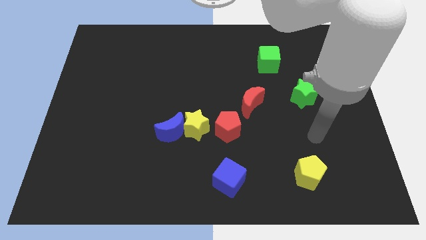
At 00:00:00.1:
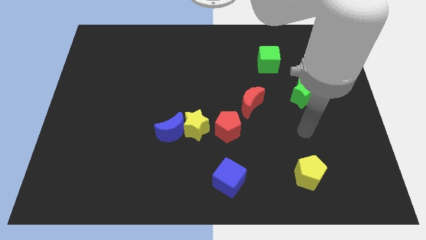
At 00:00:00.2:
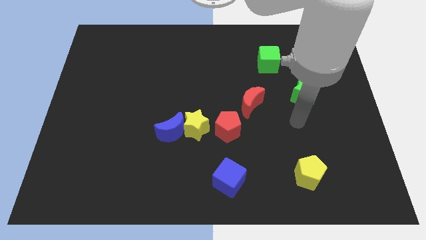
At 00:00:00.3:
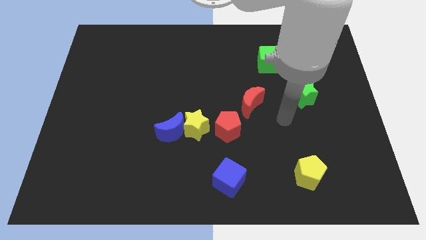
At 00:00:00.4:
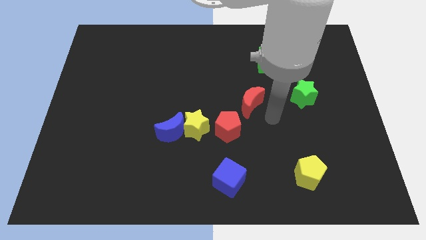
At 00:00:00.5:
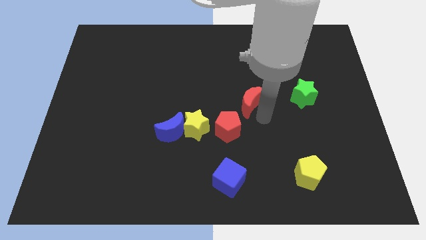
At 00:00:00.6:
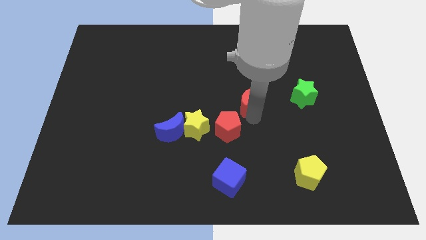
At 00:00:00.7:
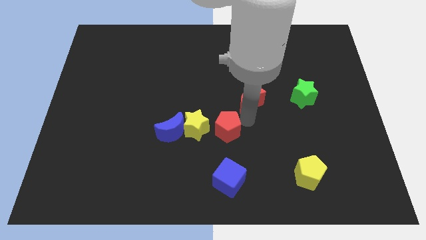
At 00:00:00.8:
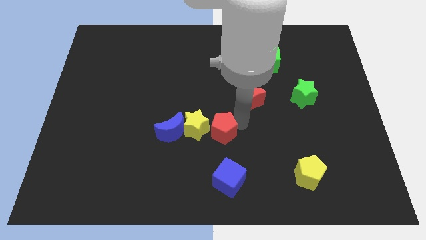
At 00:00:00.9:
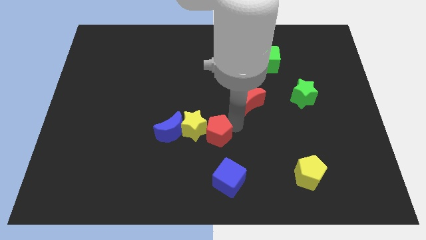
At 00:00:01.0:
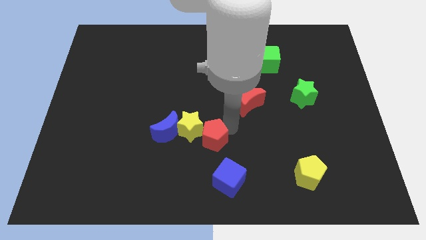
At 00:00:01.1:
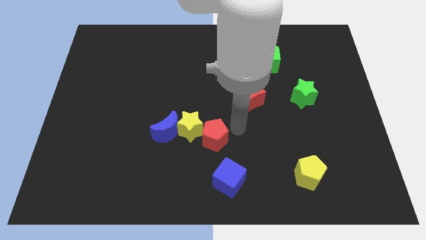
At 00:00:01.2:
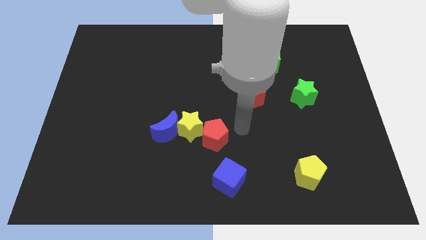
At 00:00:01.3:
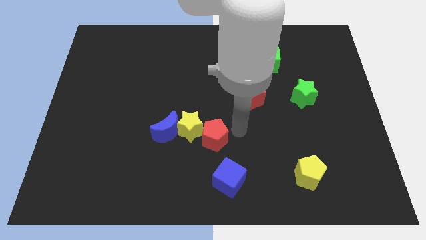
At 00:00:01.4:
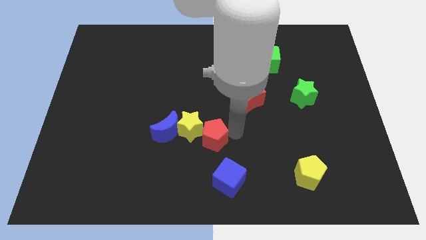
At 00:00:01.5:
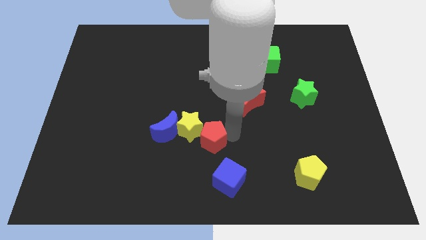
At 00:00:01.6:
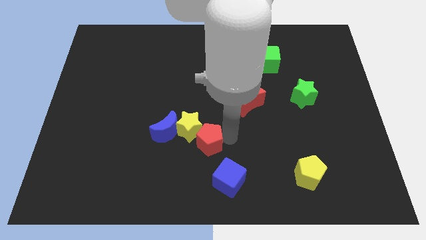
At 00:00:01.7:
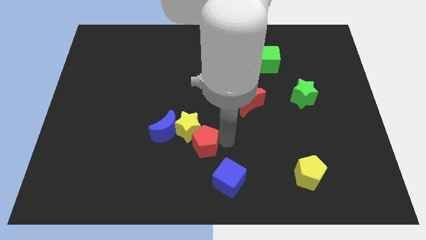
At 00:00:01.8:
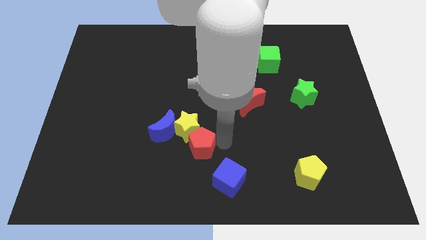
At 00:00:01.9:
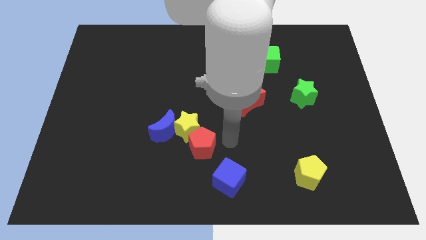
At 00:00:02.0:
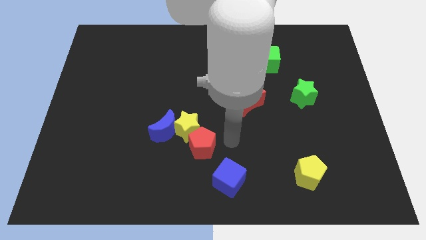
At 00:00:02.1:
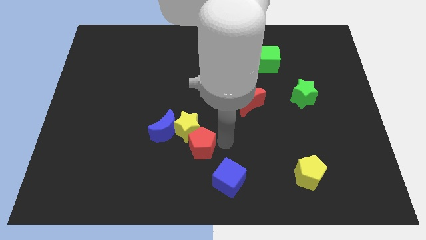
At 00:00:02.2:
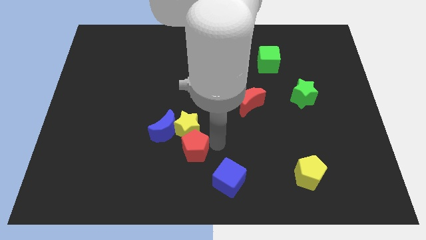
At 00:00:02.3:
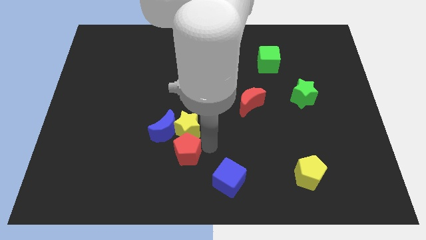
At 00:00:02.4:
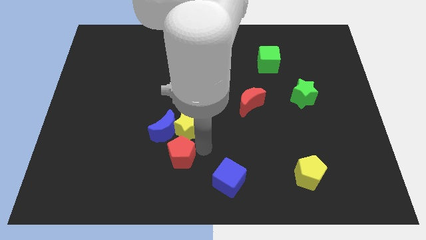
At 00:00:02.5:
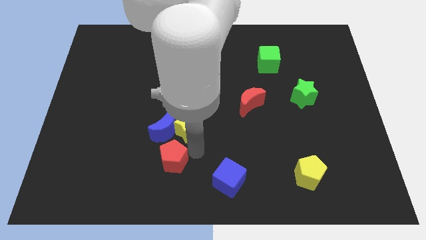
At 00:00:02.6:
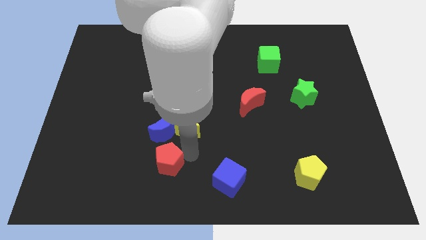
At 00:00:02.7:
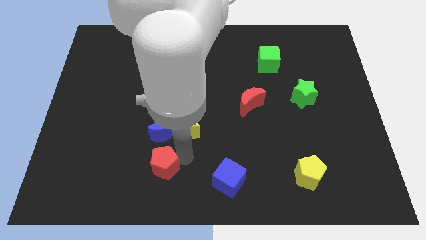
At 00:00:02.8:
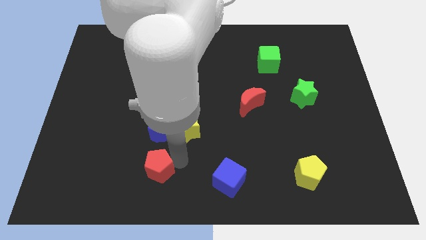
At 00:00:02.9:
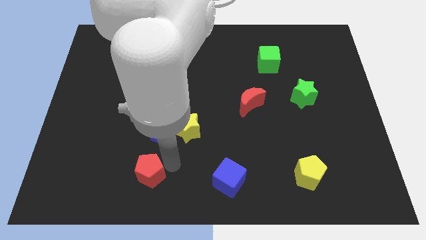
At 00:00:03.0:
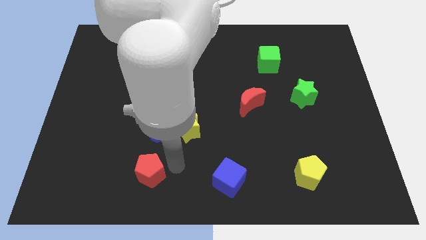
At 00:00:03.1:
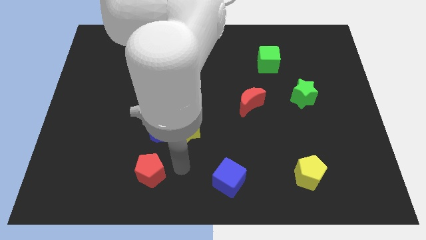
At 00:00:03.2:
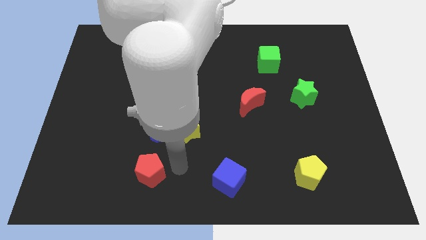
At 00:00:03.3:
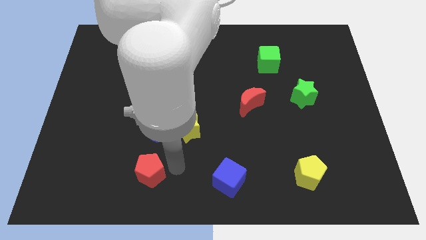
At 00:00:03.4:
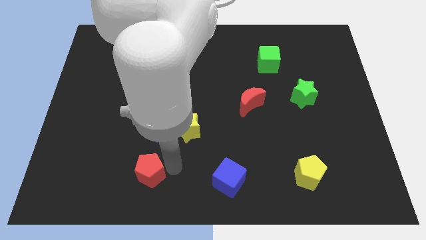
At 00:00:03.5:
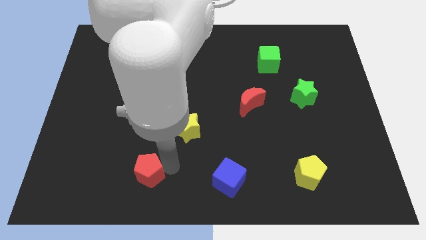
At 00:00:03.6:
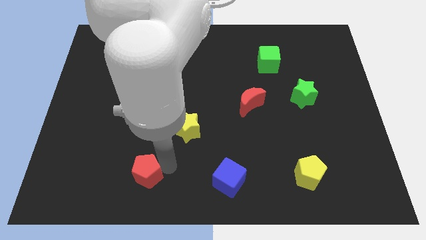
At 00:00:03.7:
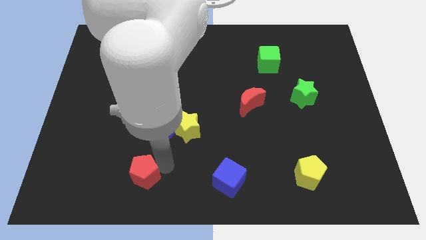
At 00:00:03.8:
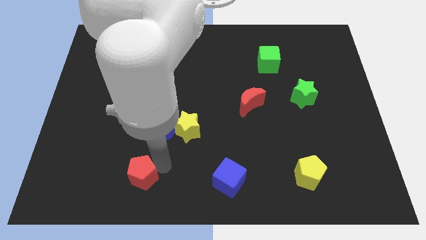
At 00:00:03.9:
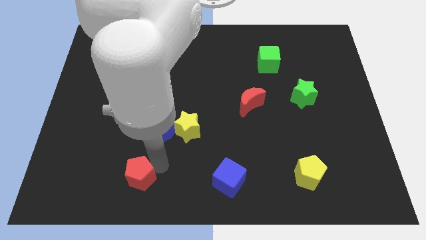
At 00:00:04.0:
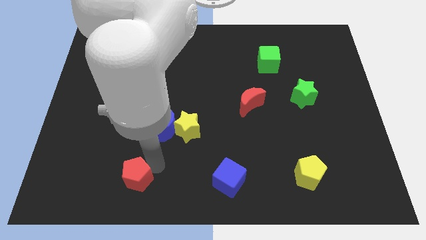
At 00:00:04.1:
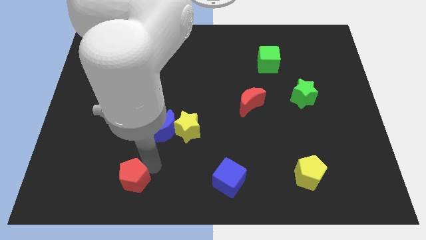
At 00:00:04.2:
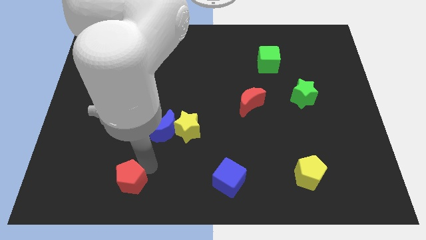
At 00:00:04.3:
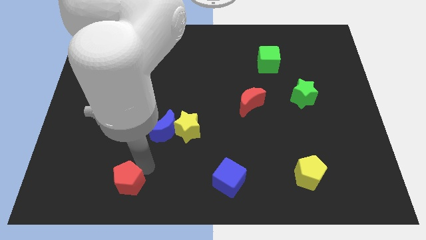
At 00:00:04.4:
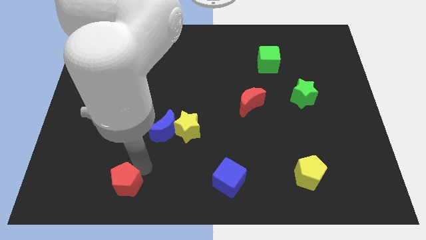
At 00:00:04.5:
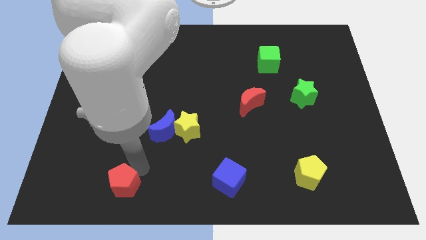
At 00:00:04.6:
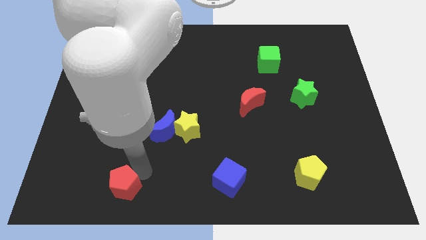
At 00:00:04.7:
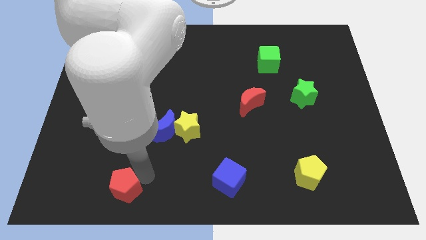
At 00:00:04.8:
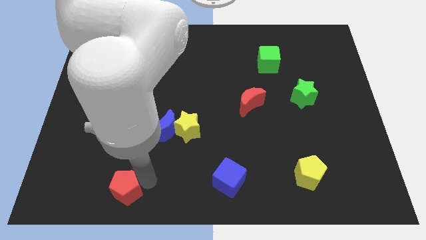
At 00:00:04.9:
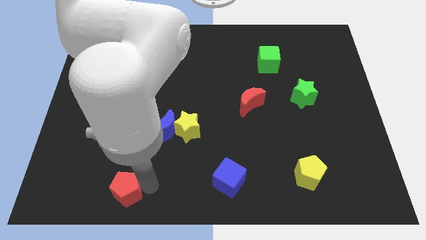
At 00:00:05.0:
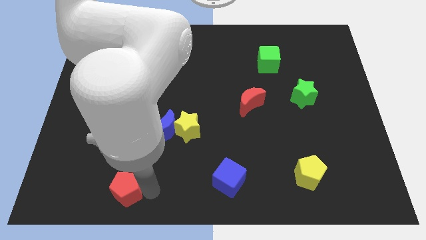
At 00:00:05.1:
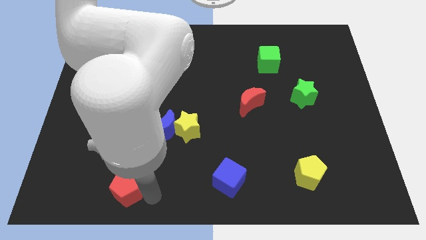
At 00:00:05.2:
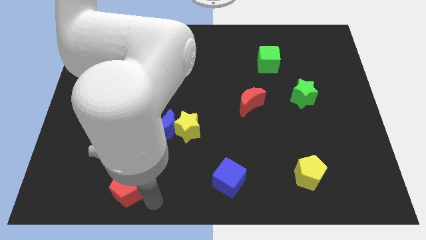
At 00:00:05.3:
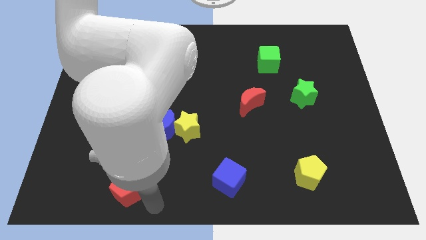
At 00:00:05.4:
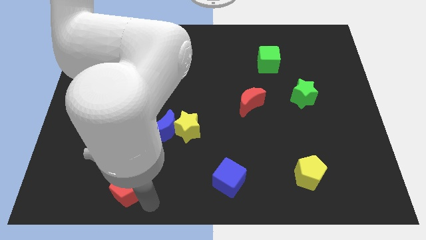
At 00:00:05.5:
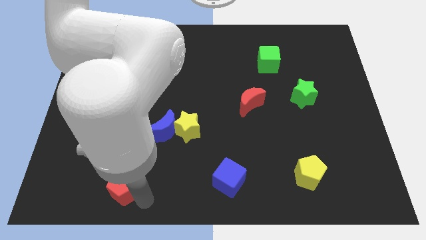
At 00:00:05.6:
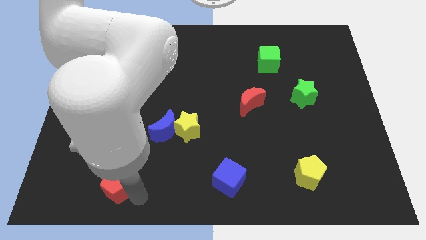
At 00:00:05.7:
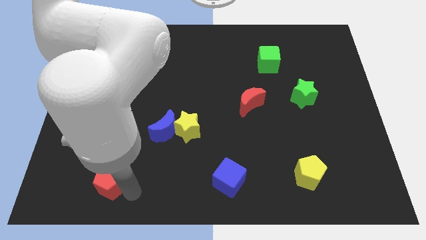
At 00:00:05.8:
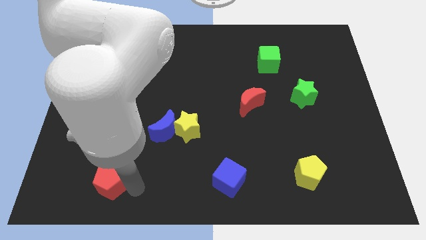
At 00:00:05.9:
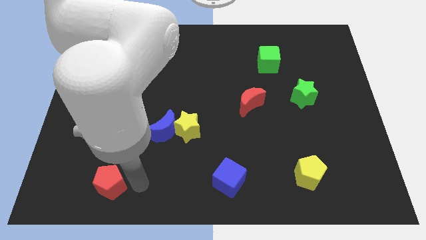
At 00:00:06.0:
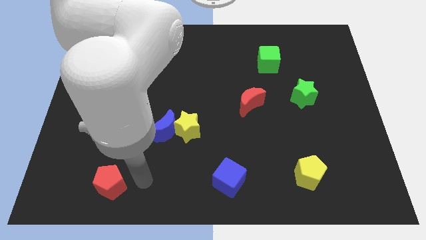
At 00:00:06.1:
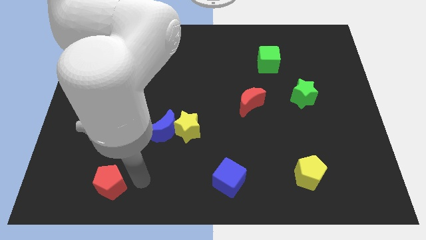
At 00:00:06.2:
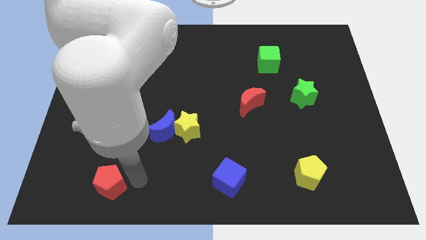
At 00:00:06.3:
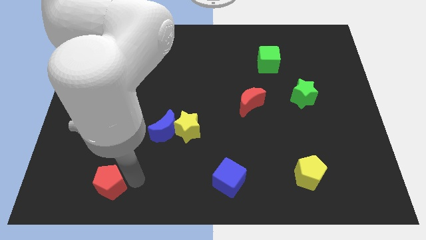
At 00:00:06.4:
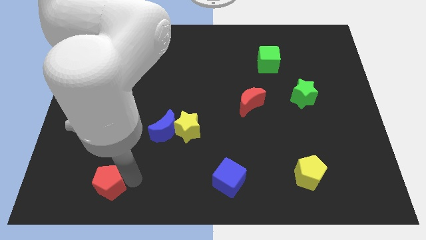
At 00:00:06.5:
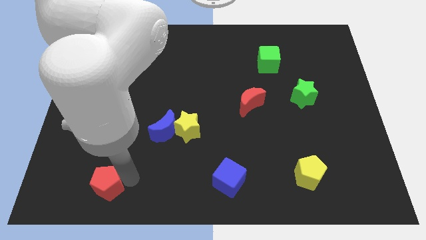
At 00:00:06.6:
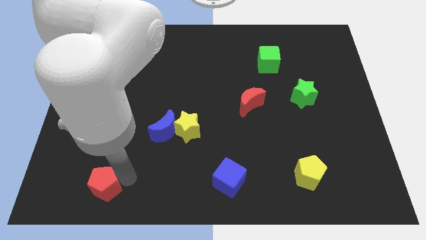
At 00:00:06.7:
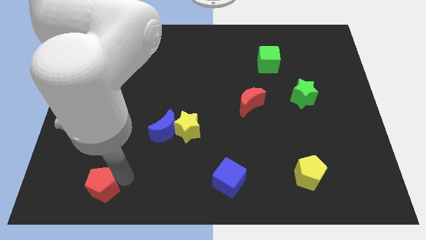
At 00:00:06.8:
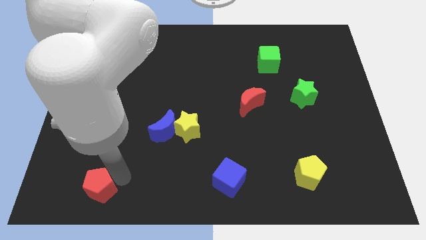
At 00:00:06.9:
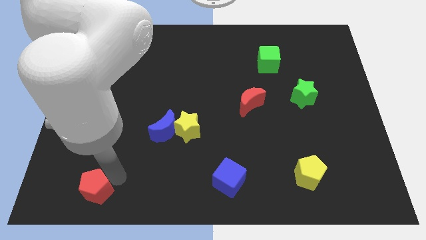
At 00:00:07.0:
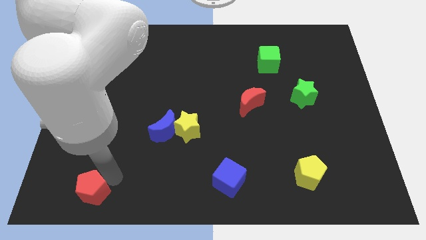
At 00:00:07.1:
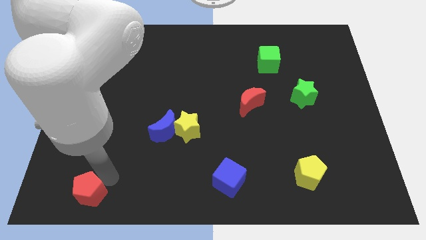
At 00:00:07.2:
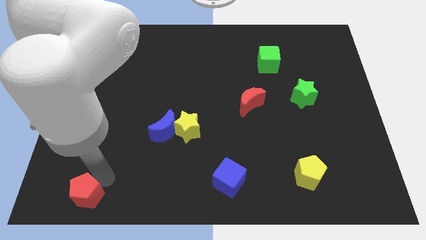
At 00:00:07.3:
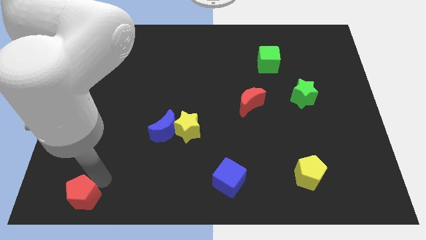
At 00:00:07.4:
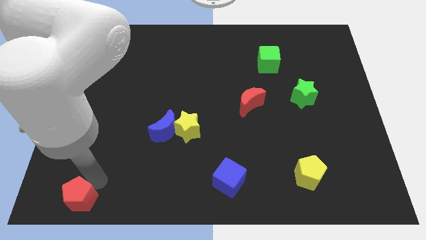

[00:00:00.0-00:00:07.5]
put the red pentagon to the bottom left
